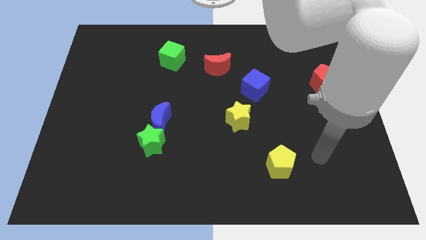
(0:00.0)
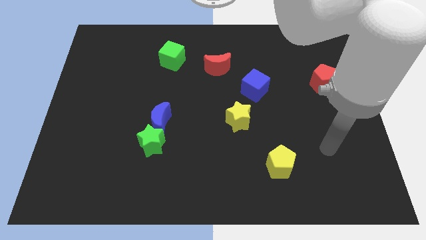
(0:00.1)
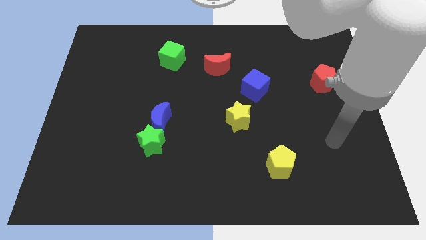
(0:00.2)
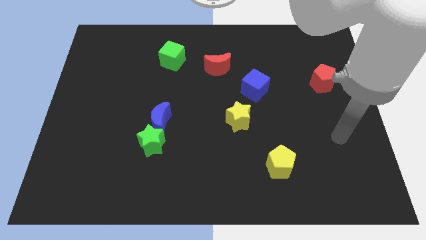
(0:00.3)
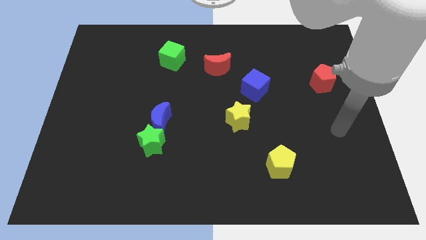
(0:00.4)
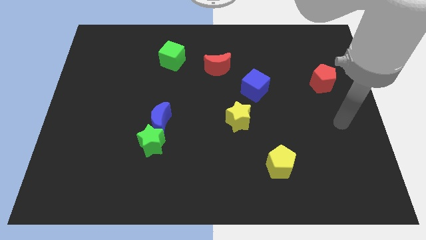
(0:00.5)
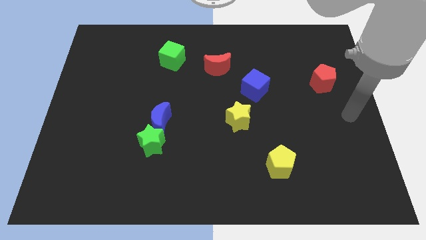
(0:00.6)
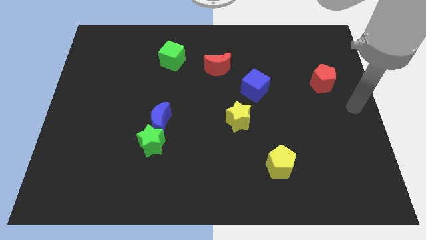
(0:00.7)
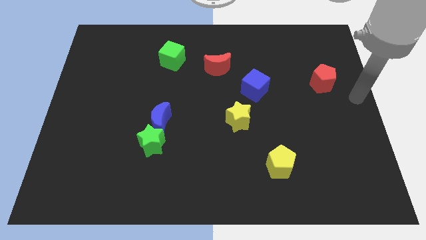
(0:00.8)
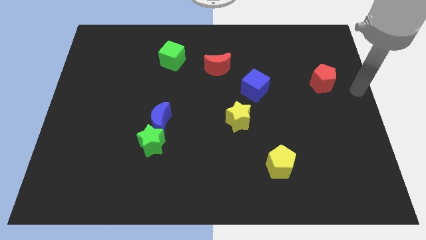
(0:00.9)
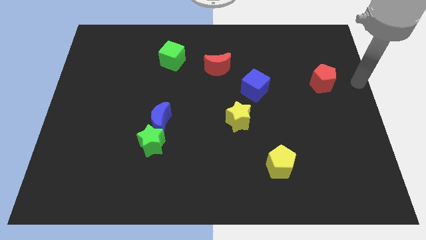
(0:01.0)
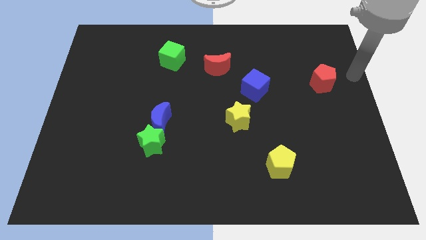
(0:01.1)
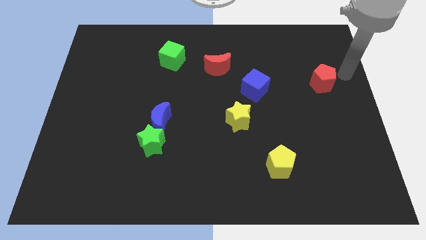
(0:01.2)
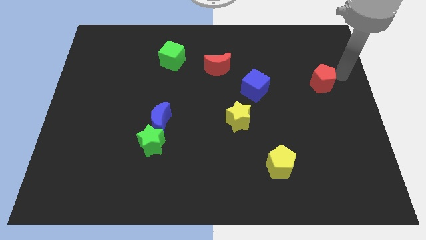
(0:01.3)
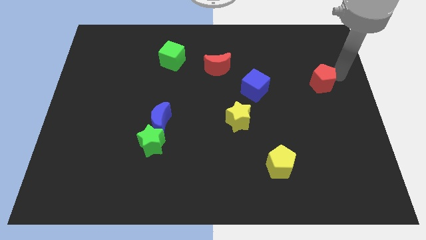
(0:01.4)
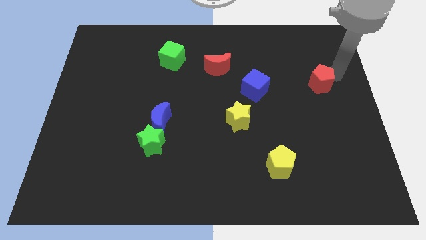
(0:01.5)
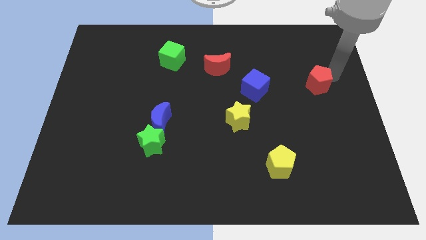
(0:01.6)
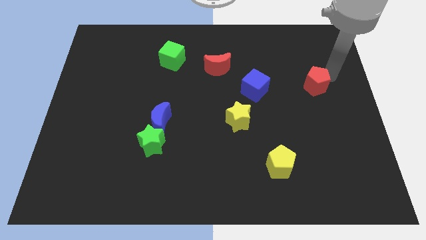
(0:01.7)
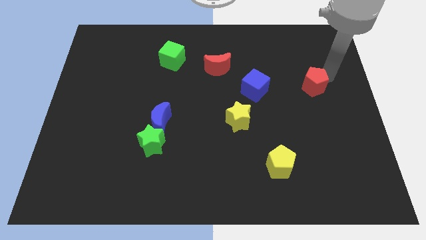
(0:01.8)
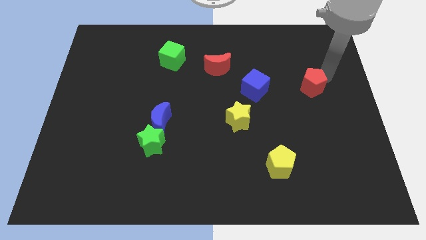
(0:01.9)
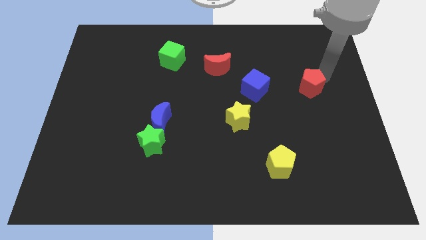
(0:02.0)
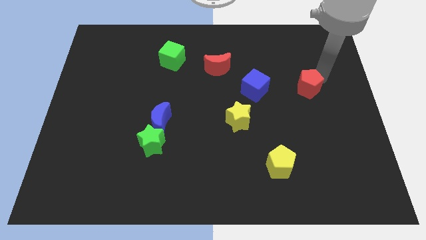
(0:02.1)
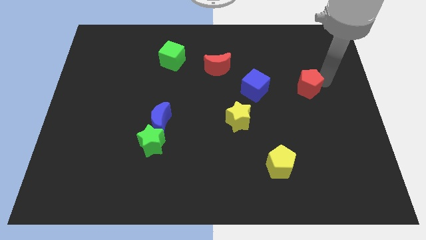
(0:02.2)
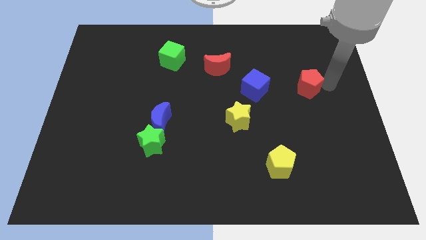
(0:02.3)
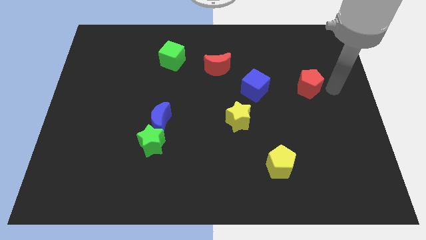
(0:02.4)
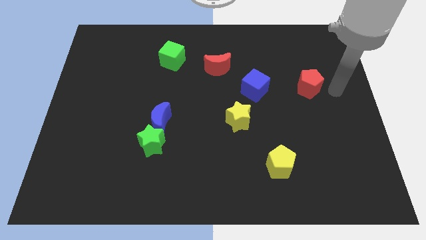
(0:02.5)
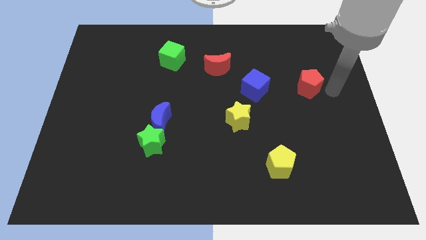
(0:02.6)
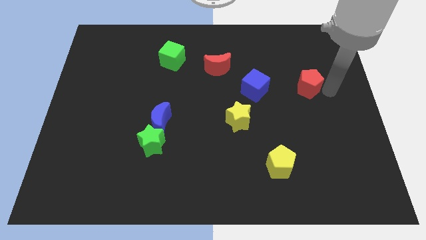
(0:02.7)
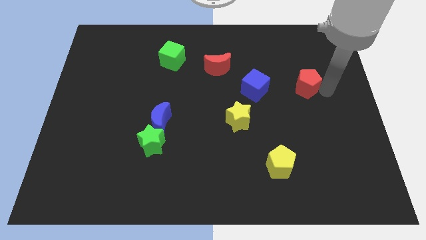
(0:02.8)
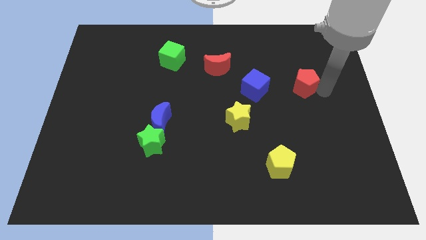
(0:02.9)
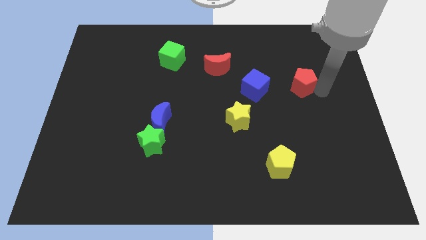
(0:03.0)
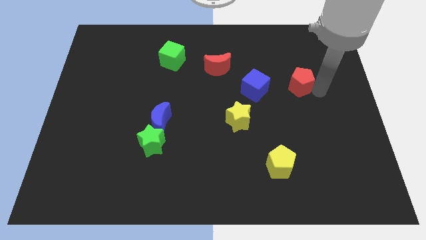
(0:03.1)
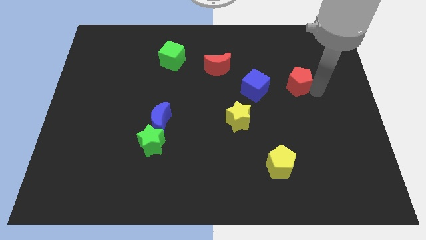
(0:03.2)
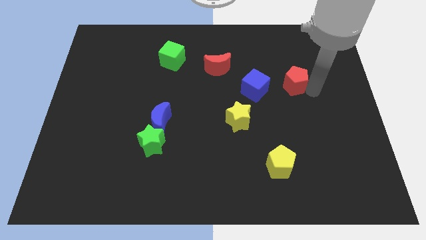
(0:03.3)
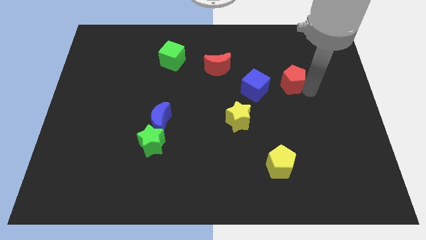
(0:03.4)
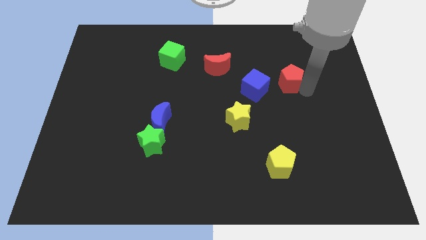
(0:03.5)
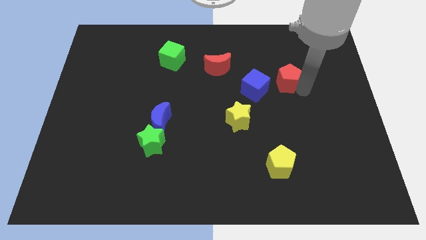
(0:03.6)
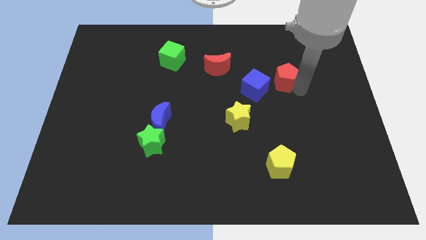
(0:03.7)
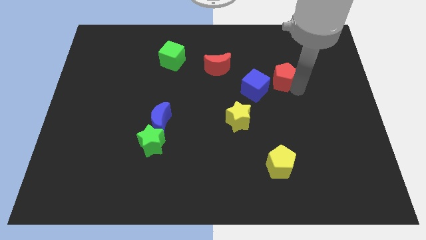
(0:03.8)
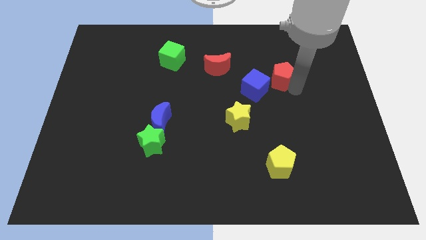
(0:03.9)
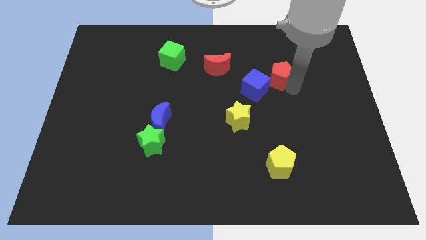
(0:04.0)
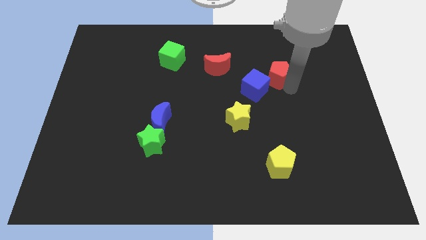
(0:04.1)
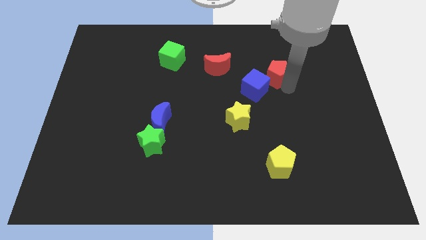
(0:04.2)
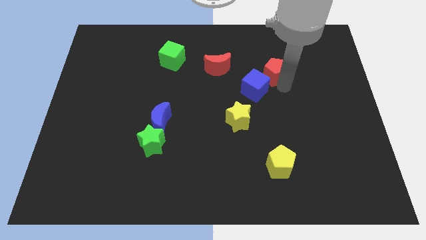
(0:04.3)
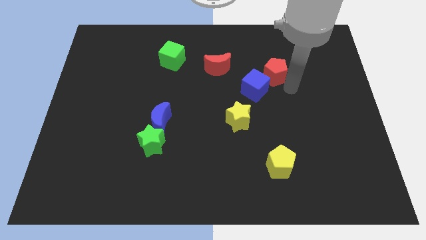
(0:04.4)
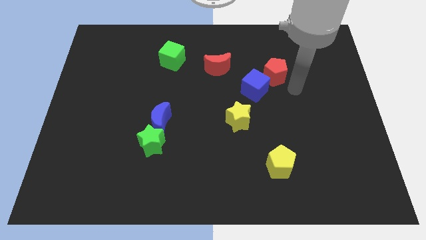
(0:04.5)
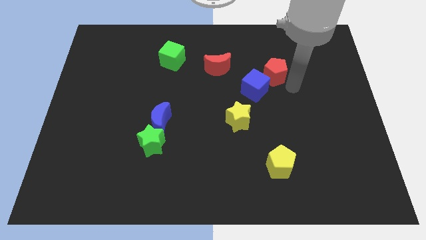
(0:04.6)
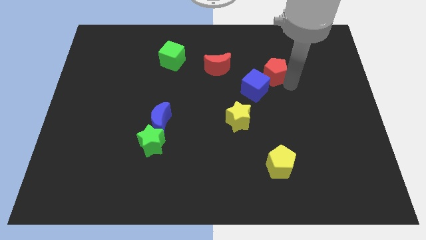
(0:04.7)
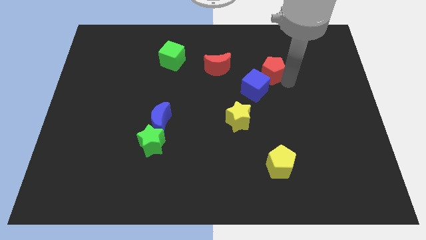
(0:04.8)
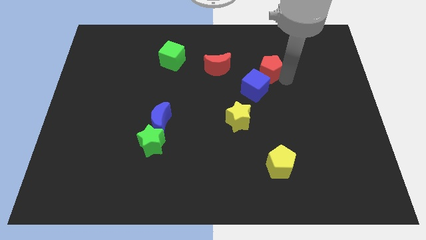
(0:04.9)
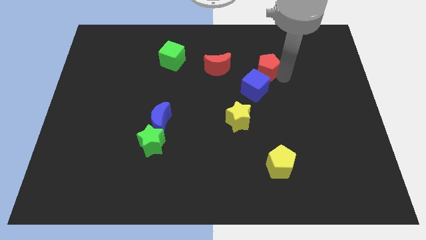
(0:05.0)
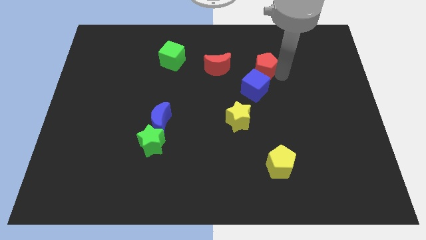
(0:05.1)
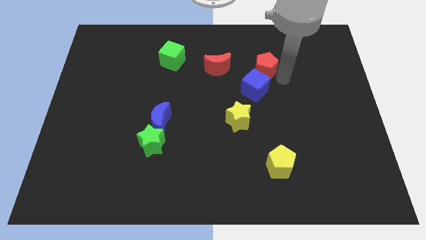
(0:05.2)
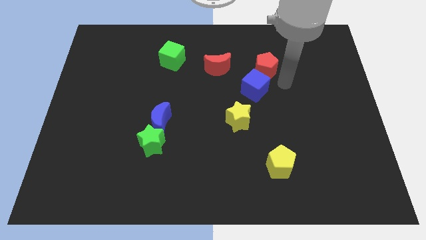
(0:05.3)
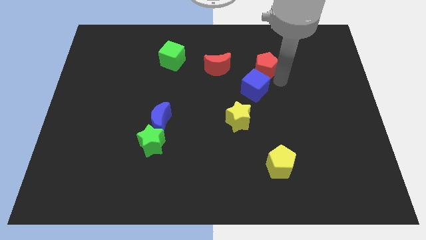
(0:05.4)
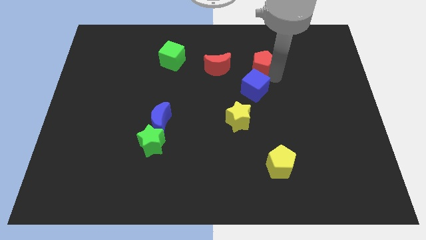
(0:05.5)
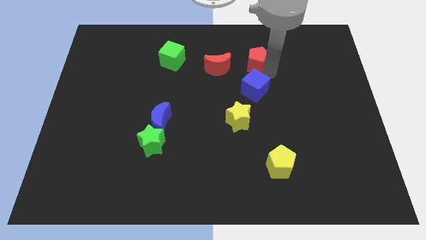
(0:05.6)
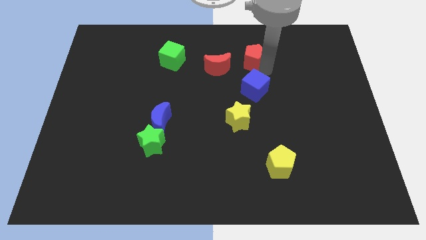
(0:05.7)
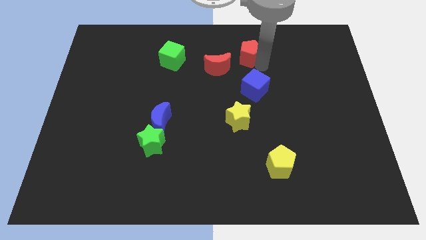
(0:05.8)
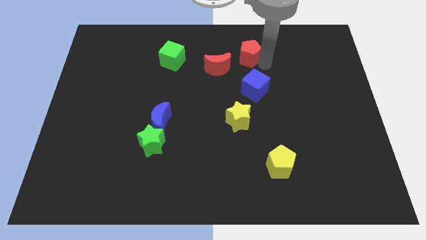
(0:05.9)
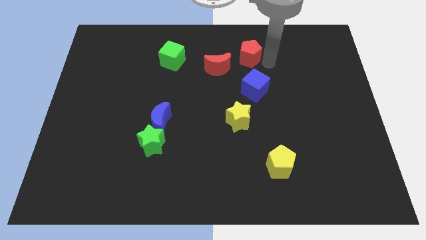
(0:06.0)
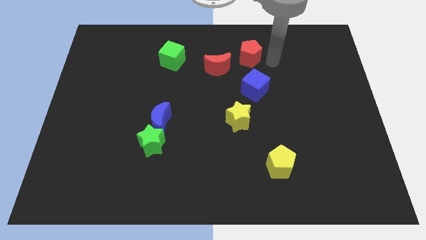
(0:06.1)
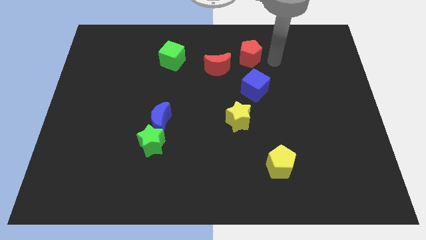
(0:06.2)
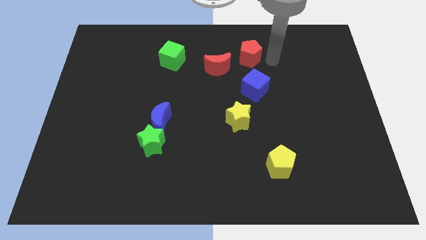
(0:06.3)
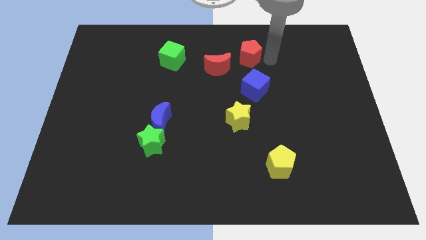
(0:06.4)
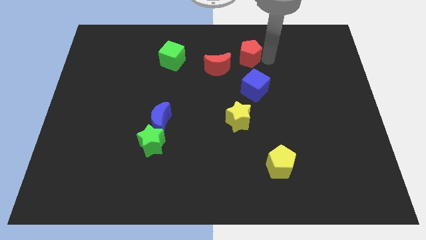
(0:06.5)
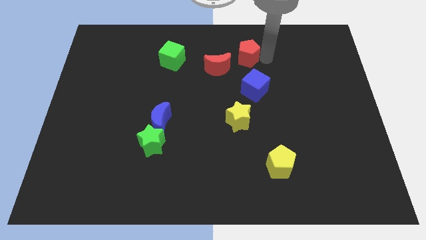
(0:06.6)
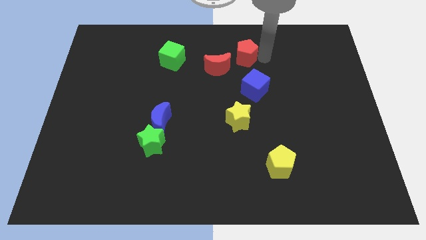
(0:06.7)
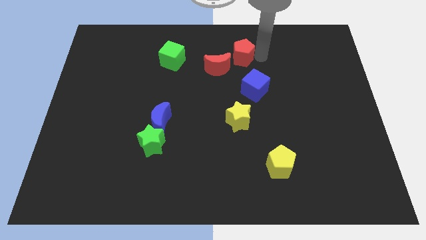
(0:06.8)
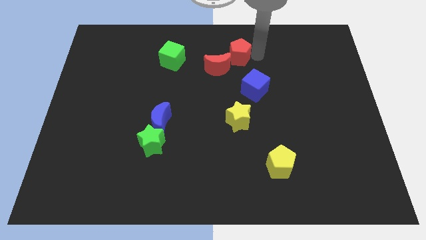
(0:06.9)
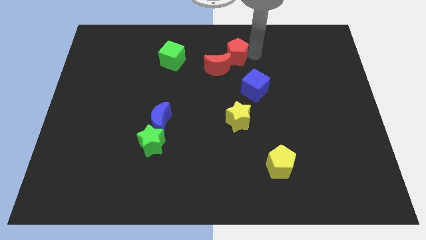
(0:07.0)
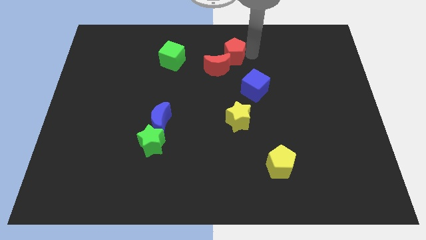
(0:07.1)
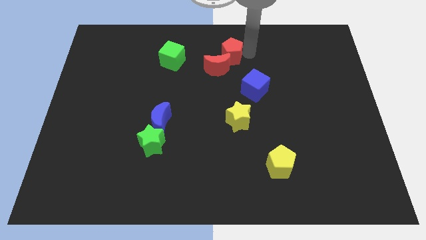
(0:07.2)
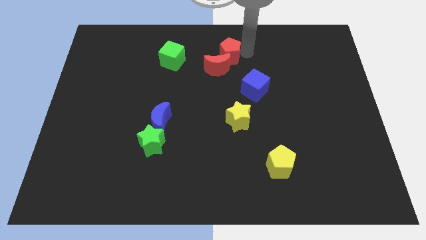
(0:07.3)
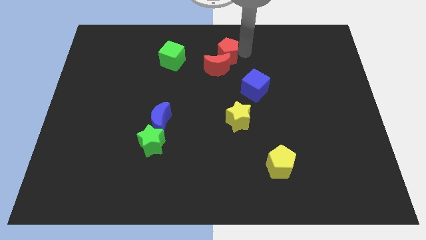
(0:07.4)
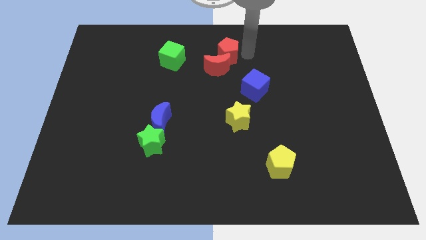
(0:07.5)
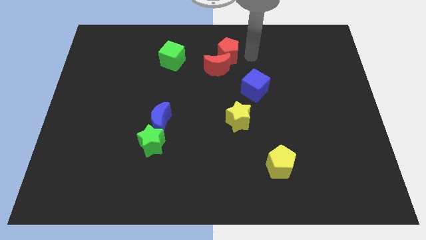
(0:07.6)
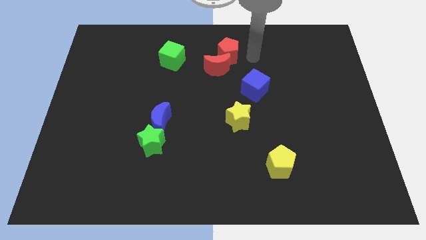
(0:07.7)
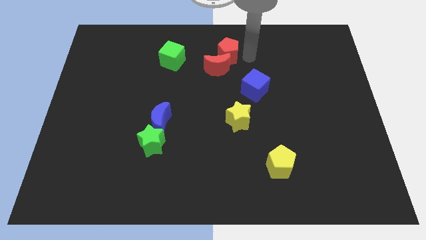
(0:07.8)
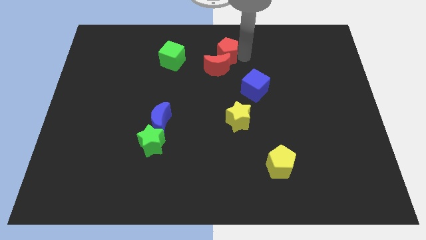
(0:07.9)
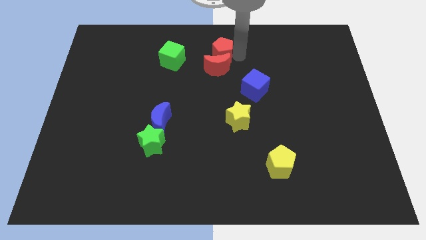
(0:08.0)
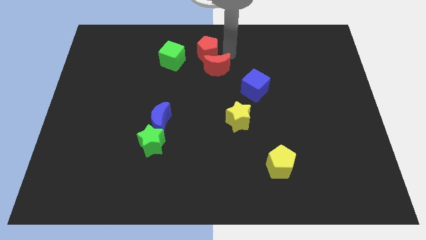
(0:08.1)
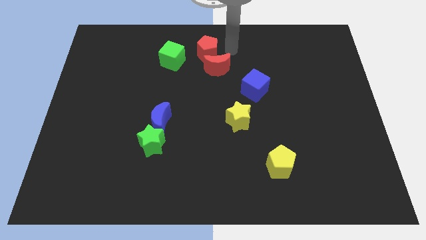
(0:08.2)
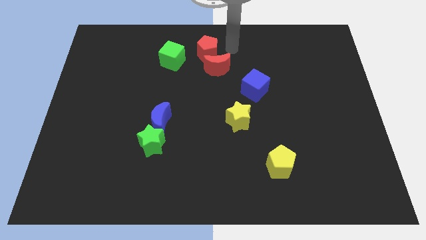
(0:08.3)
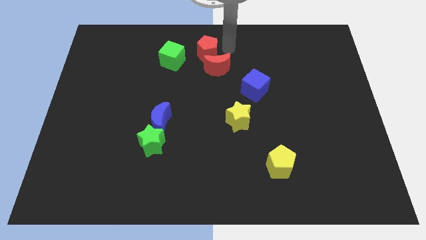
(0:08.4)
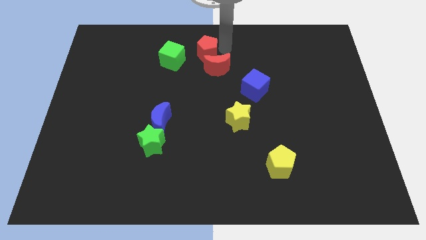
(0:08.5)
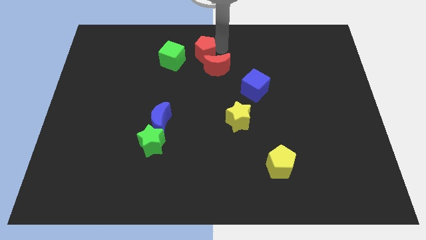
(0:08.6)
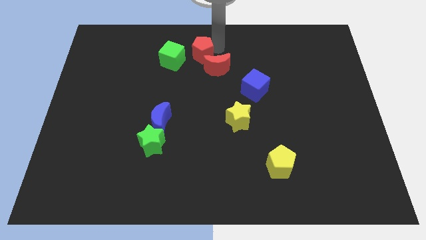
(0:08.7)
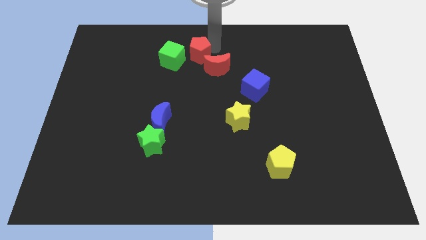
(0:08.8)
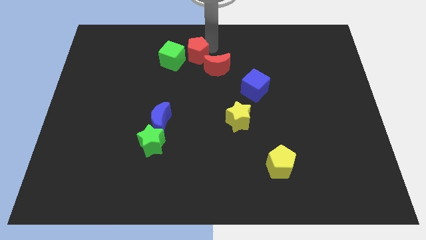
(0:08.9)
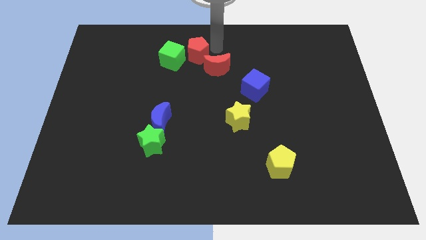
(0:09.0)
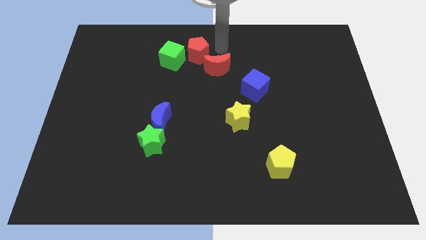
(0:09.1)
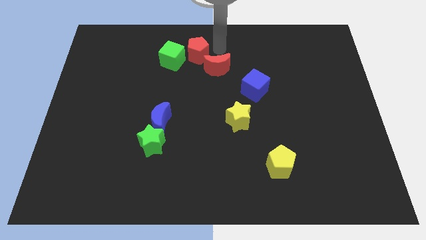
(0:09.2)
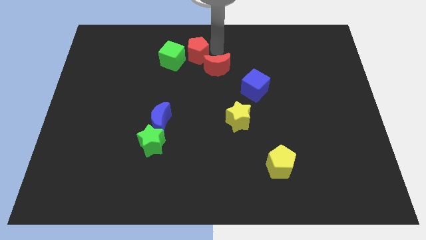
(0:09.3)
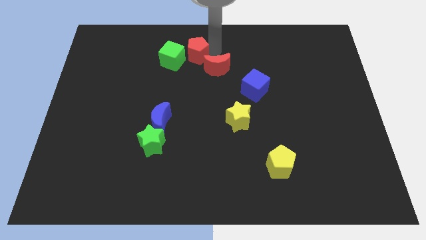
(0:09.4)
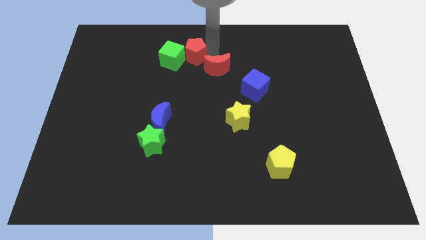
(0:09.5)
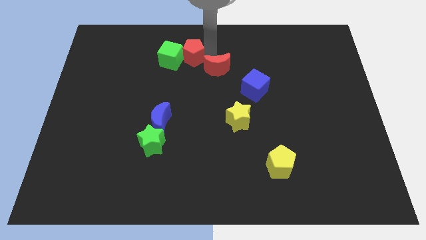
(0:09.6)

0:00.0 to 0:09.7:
slide the red pentagon towards the green cube
